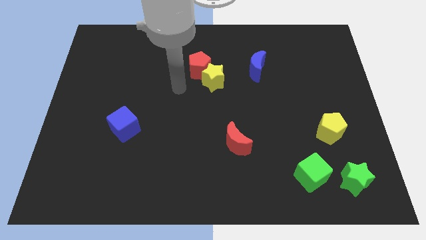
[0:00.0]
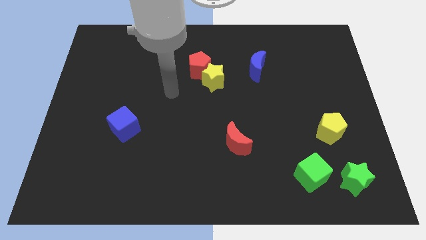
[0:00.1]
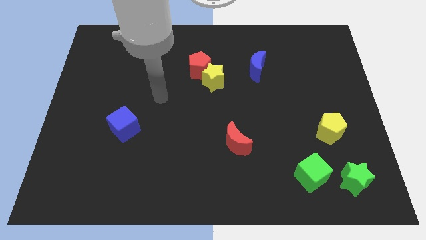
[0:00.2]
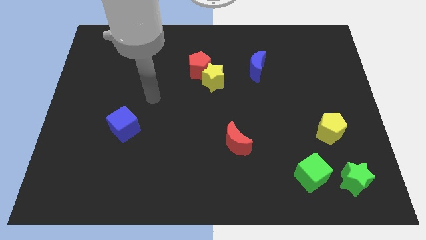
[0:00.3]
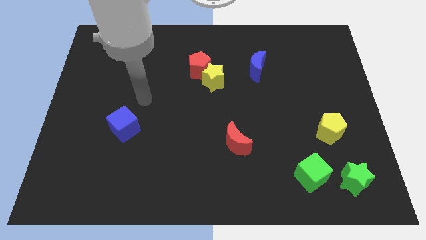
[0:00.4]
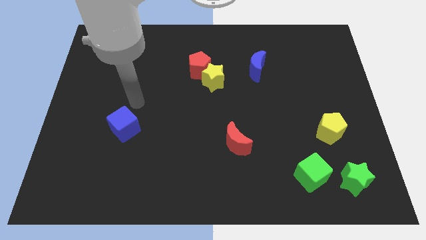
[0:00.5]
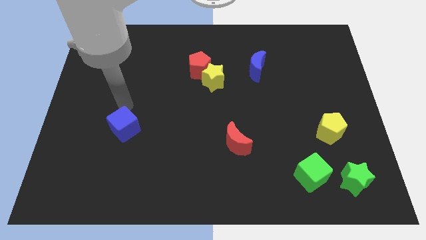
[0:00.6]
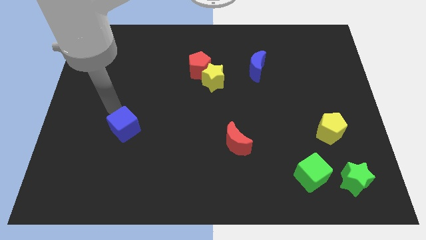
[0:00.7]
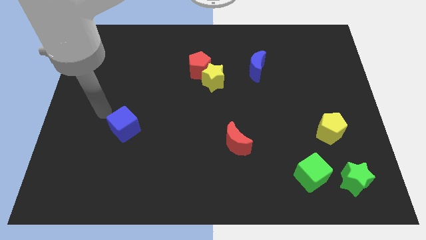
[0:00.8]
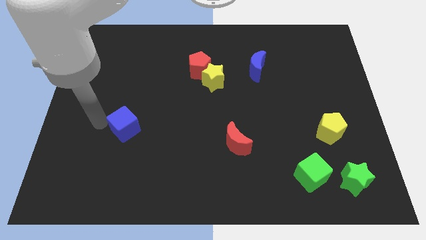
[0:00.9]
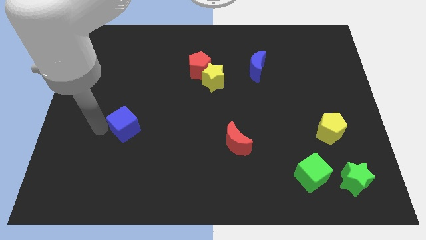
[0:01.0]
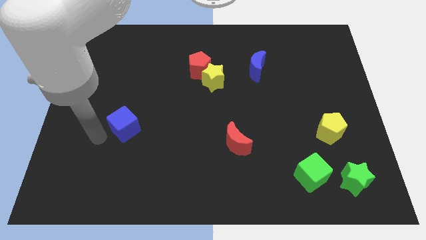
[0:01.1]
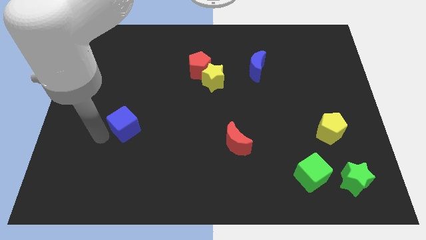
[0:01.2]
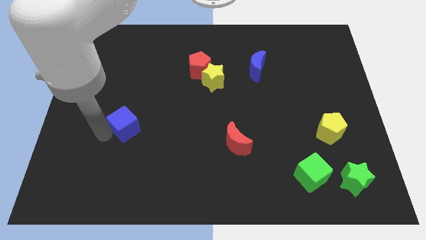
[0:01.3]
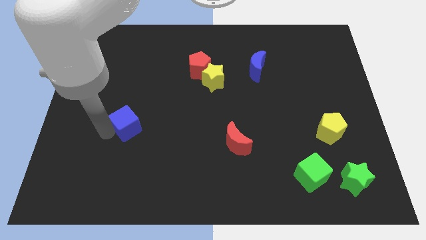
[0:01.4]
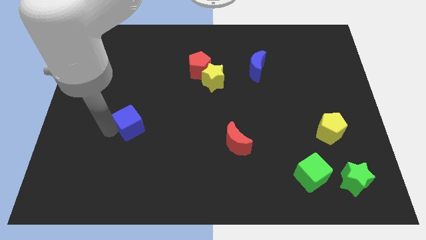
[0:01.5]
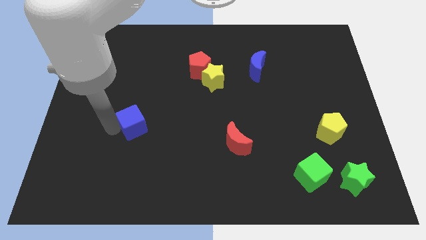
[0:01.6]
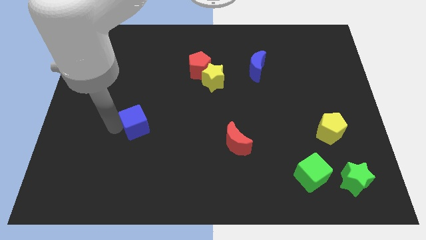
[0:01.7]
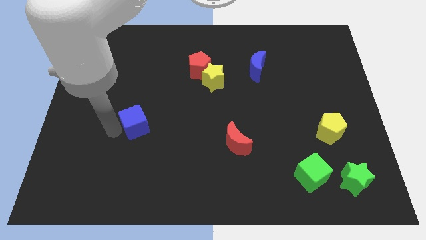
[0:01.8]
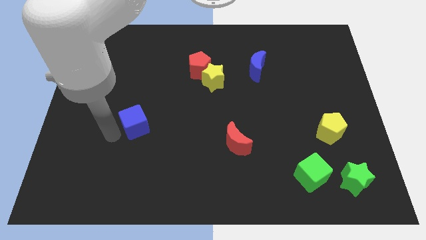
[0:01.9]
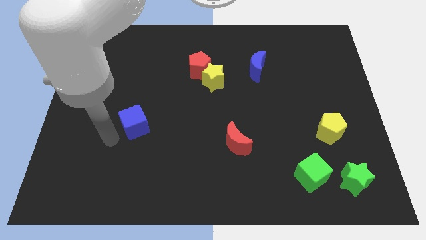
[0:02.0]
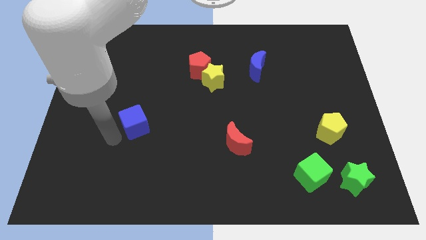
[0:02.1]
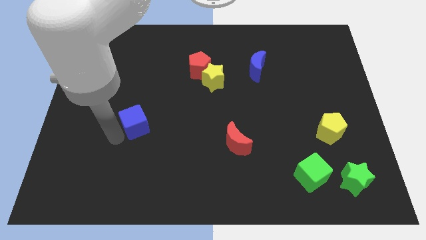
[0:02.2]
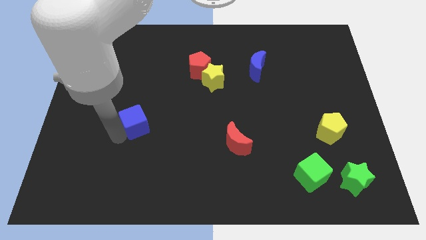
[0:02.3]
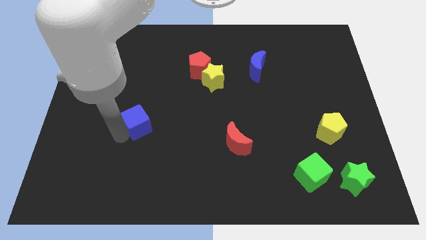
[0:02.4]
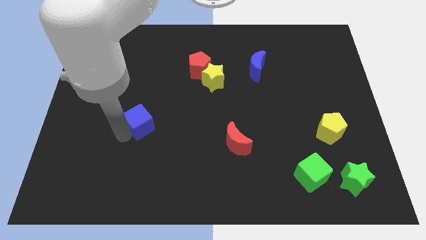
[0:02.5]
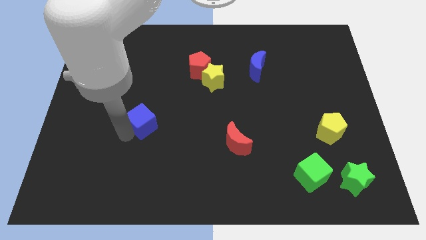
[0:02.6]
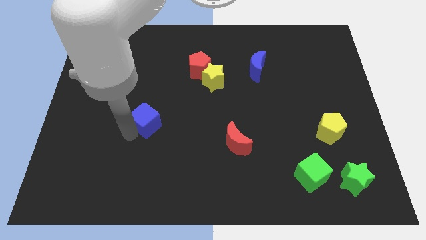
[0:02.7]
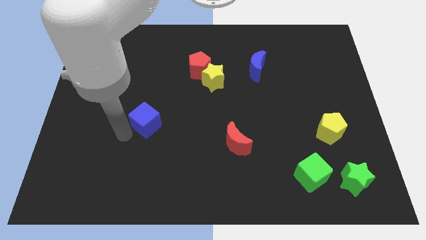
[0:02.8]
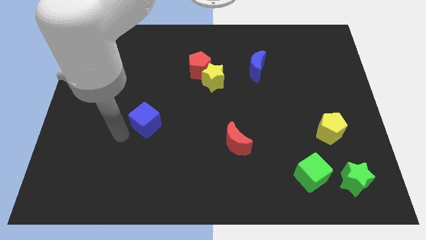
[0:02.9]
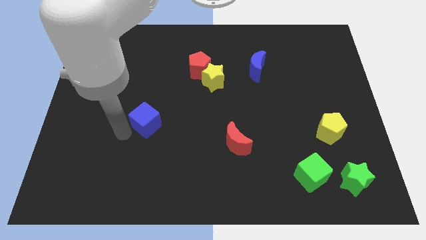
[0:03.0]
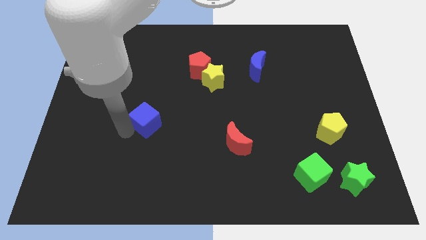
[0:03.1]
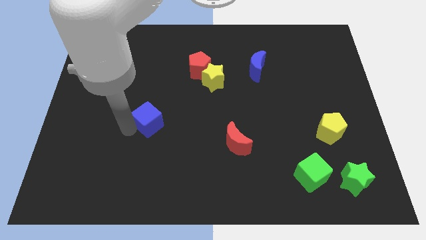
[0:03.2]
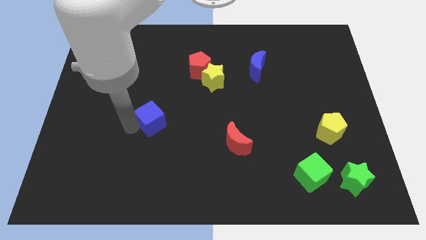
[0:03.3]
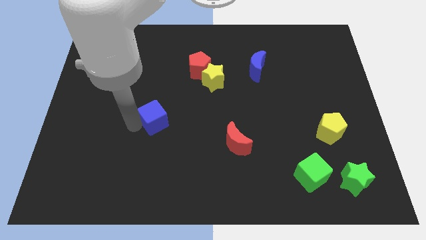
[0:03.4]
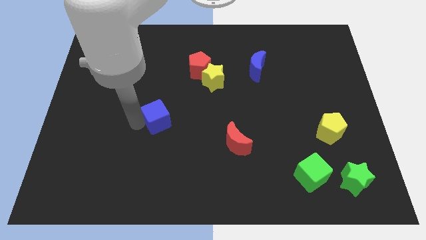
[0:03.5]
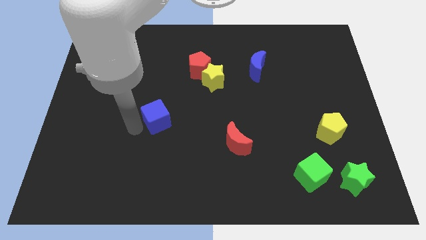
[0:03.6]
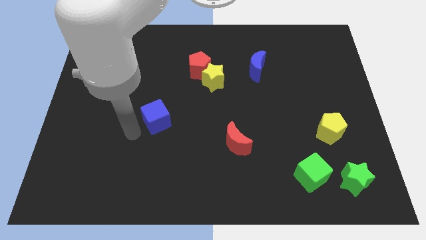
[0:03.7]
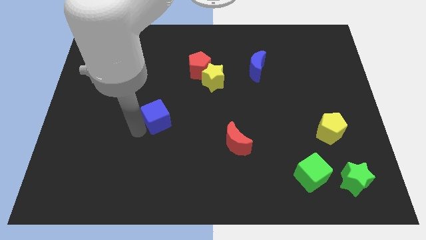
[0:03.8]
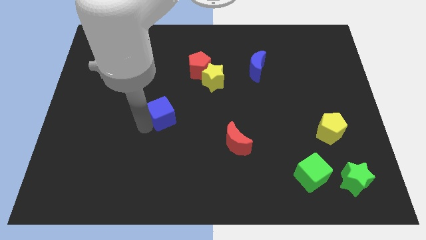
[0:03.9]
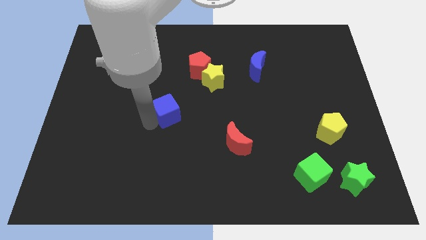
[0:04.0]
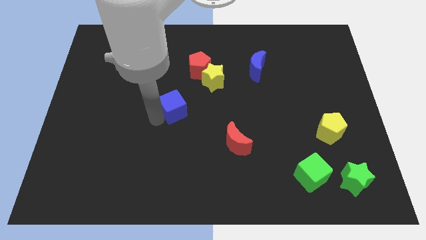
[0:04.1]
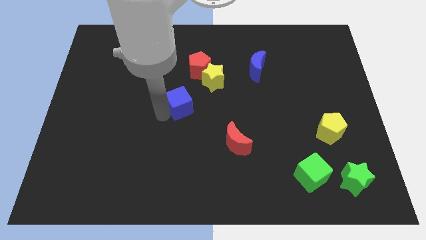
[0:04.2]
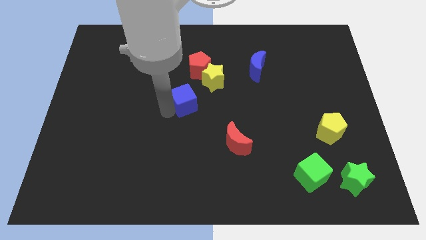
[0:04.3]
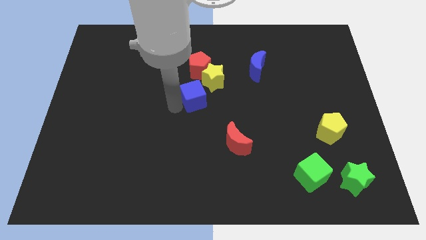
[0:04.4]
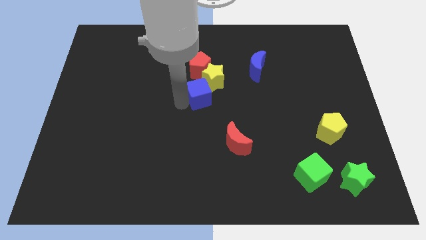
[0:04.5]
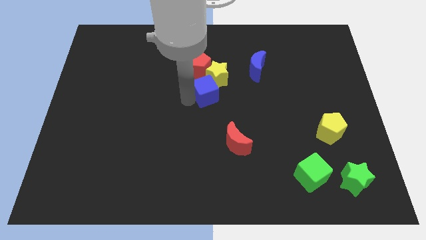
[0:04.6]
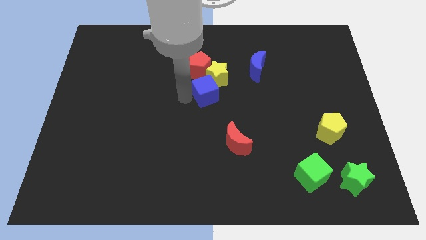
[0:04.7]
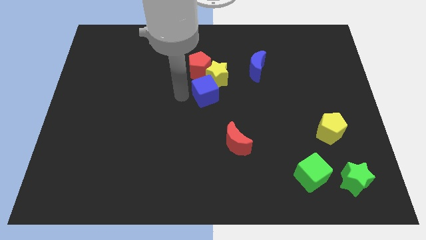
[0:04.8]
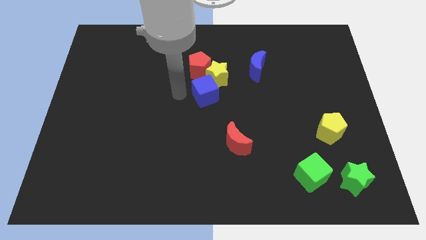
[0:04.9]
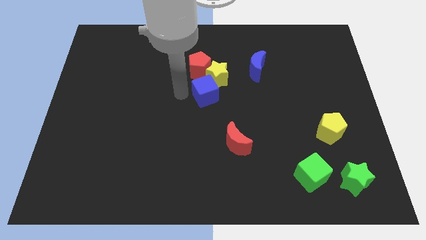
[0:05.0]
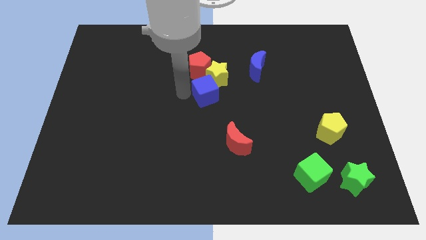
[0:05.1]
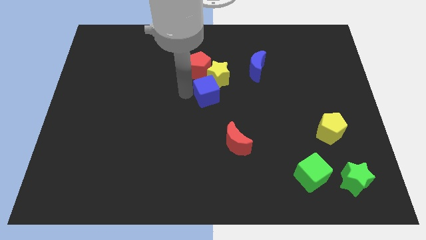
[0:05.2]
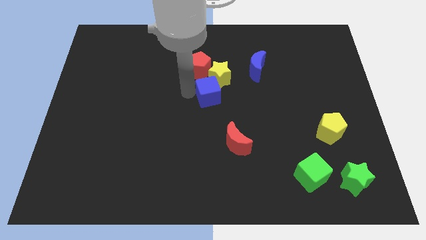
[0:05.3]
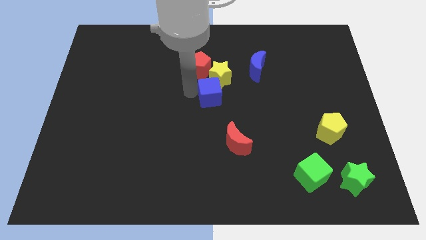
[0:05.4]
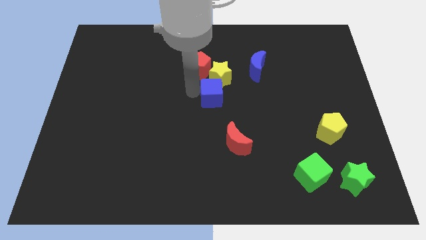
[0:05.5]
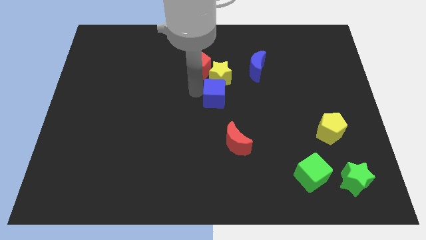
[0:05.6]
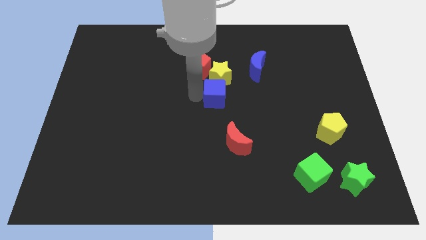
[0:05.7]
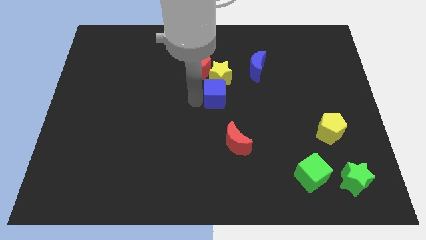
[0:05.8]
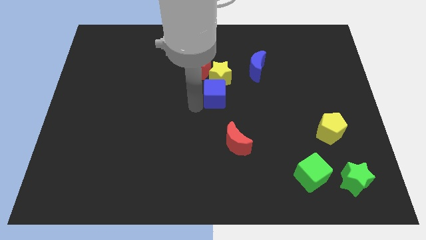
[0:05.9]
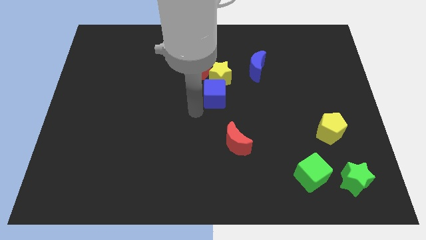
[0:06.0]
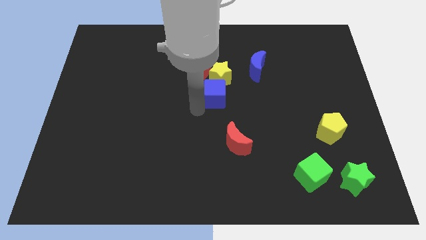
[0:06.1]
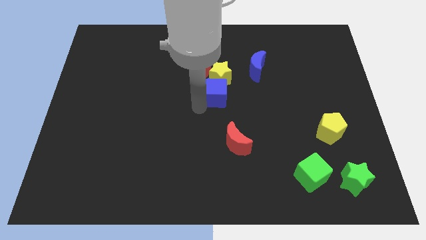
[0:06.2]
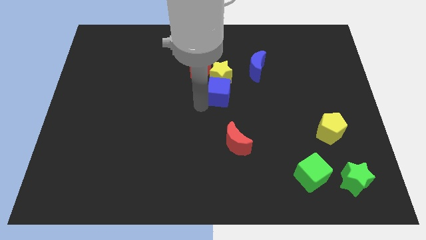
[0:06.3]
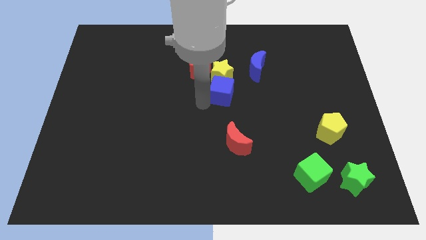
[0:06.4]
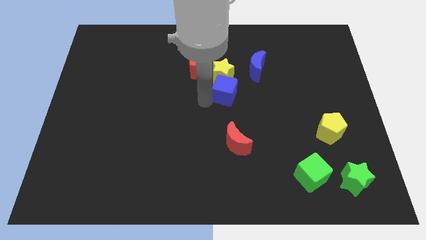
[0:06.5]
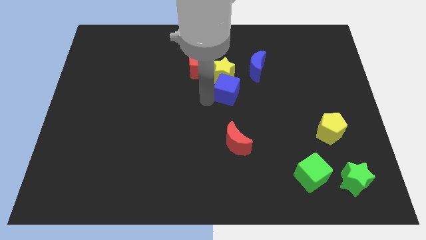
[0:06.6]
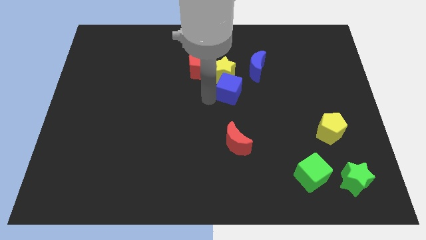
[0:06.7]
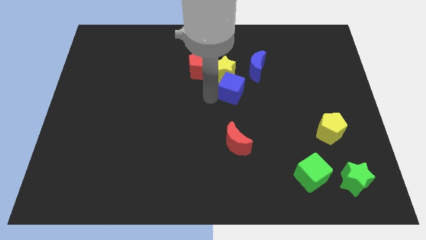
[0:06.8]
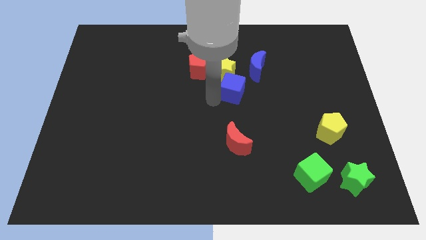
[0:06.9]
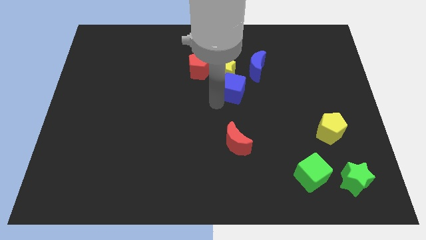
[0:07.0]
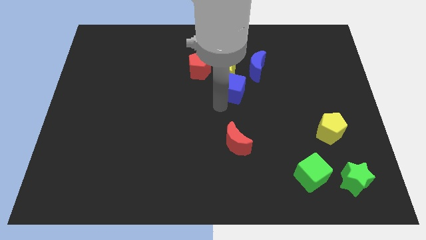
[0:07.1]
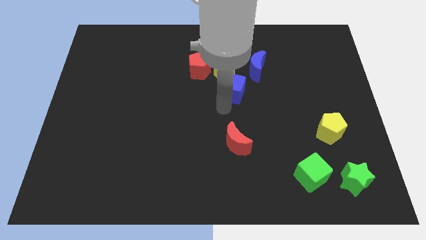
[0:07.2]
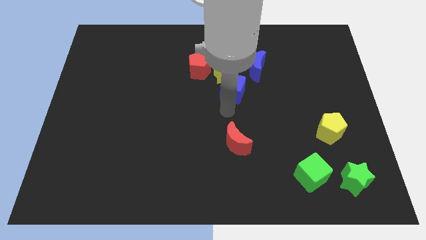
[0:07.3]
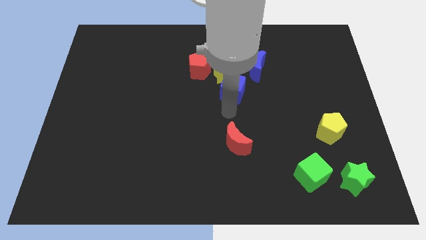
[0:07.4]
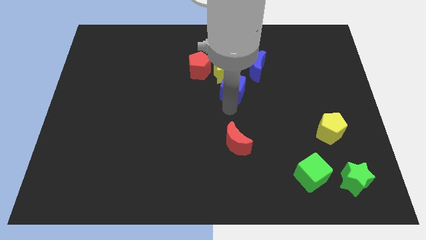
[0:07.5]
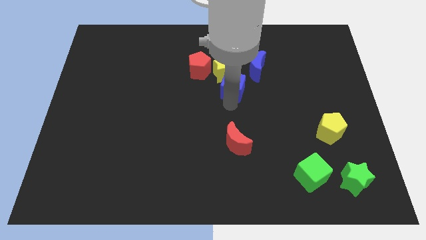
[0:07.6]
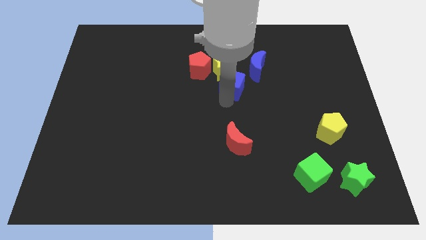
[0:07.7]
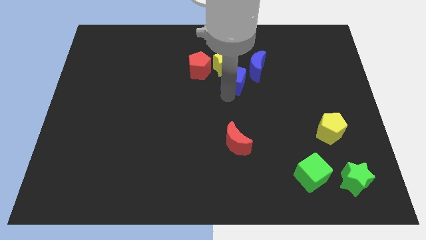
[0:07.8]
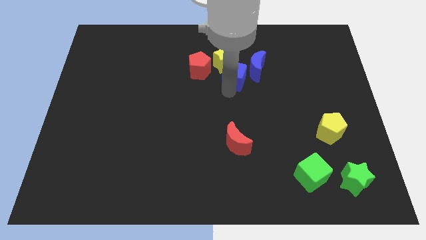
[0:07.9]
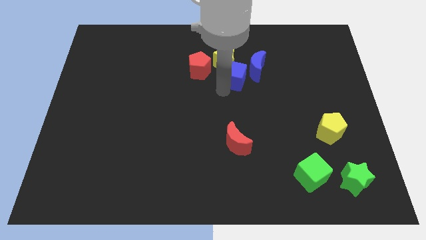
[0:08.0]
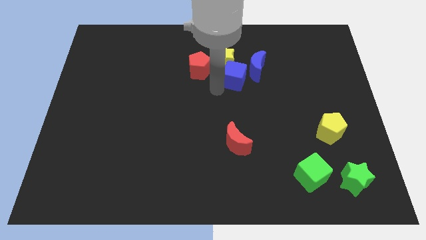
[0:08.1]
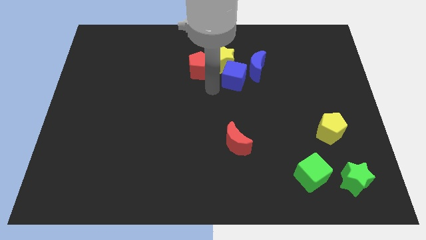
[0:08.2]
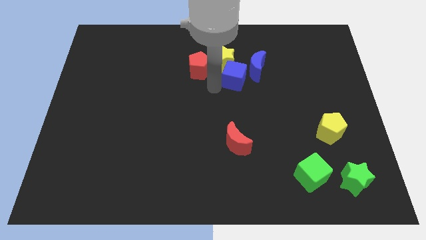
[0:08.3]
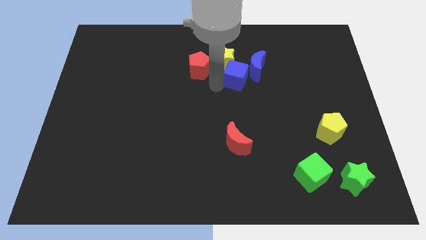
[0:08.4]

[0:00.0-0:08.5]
put the blue cube to the blue moon
